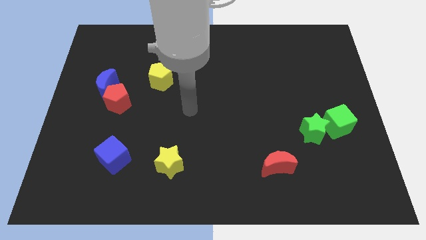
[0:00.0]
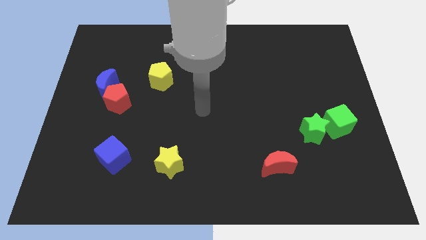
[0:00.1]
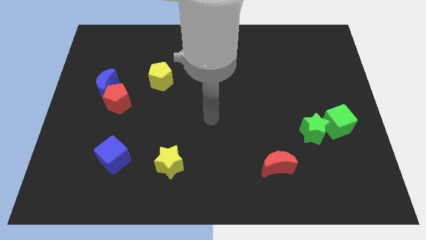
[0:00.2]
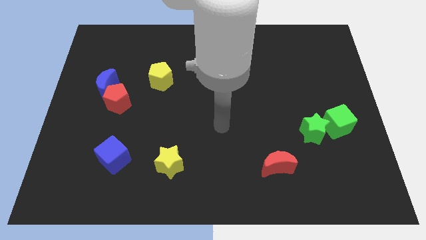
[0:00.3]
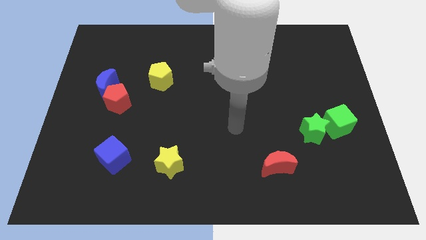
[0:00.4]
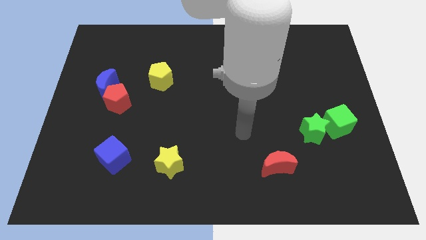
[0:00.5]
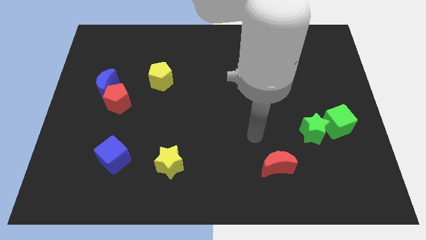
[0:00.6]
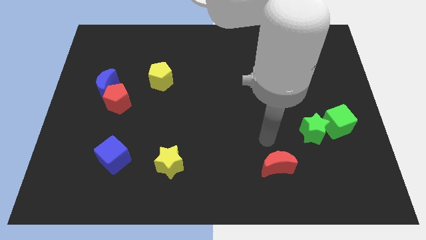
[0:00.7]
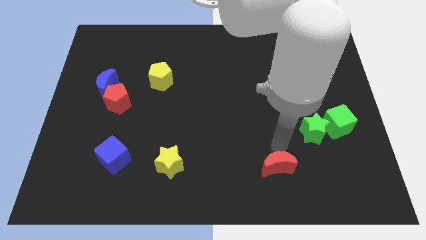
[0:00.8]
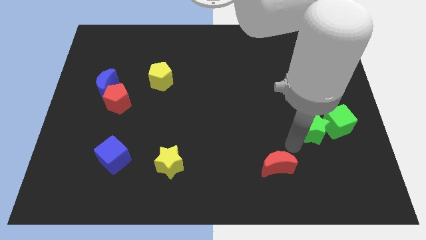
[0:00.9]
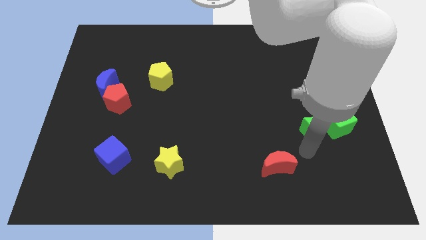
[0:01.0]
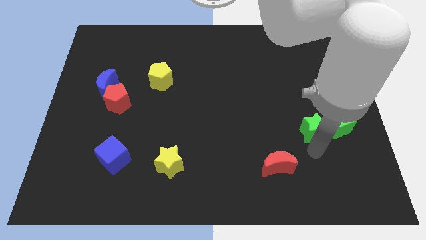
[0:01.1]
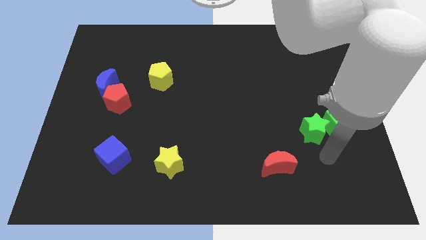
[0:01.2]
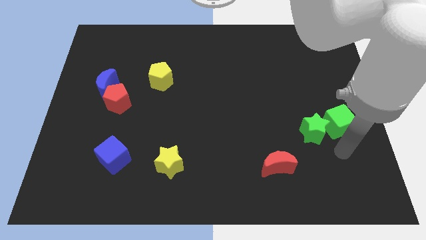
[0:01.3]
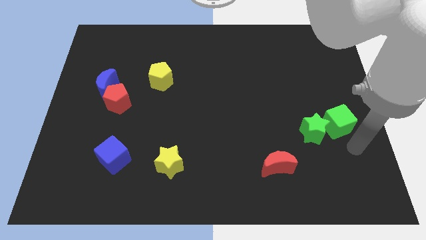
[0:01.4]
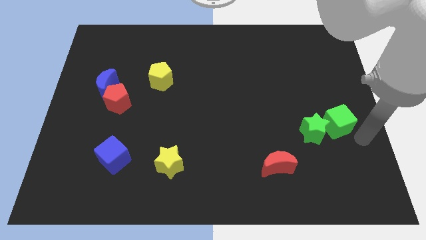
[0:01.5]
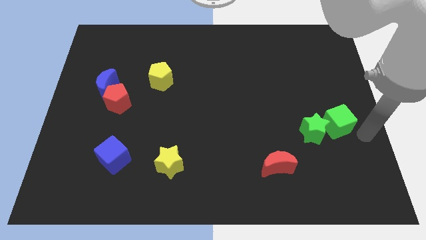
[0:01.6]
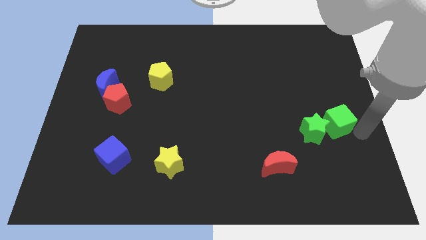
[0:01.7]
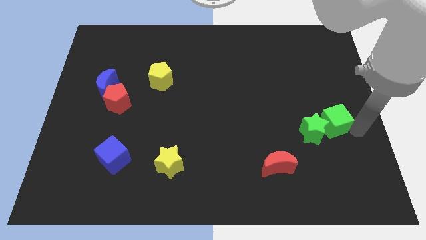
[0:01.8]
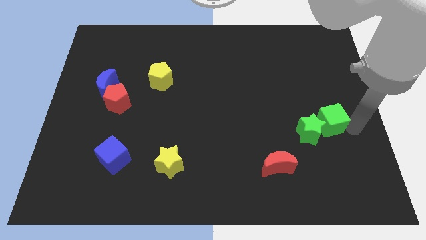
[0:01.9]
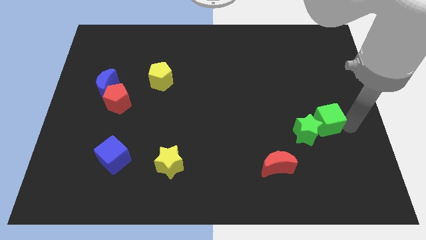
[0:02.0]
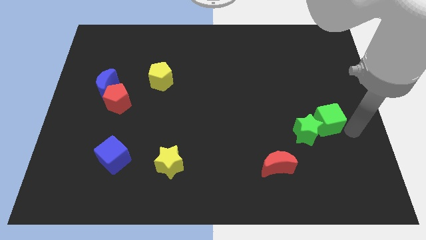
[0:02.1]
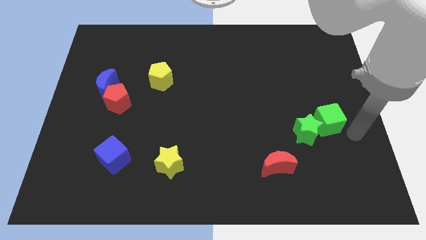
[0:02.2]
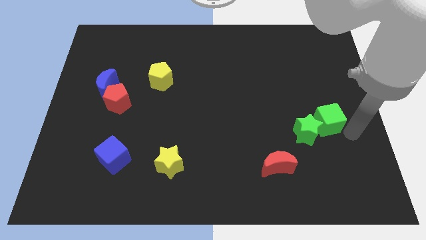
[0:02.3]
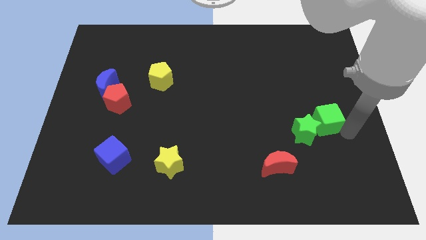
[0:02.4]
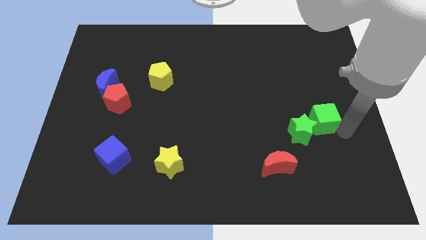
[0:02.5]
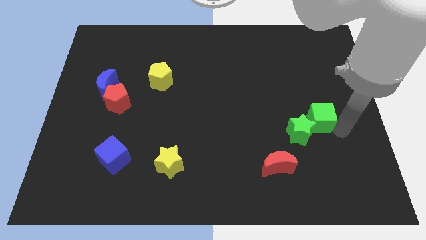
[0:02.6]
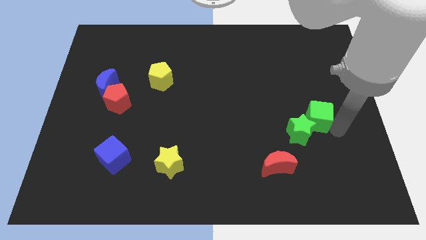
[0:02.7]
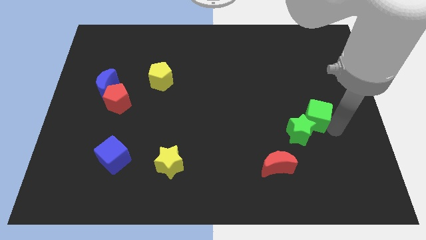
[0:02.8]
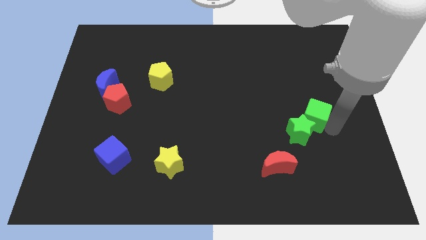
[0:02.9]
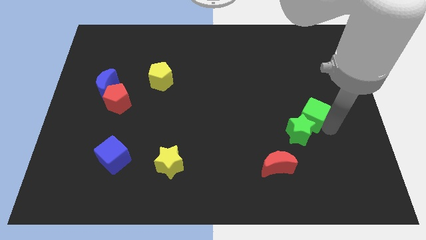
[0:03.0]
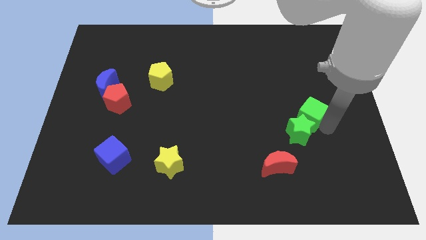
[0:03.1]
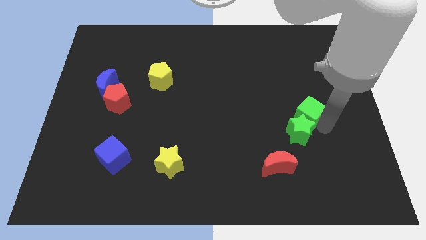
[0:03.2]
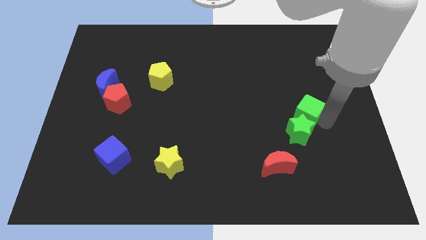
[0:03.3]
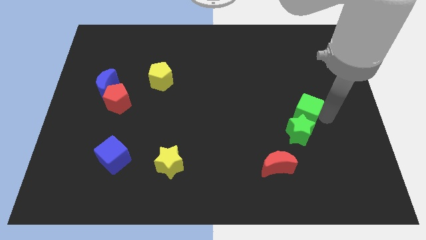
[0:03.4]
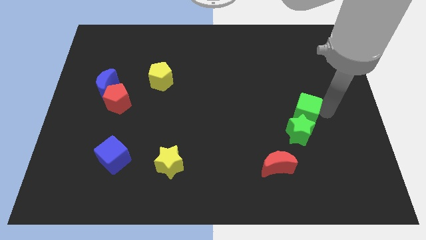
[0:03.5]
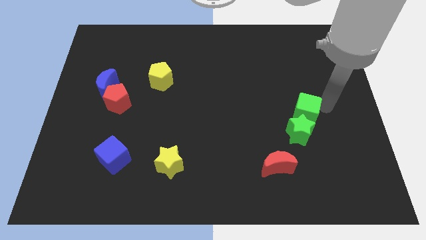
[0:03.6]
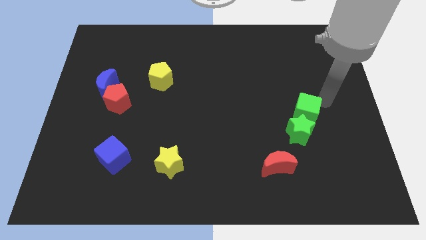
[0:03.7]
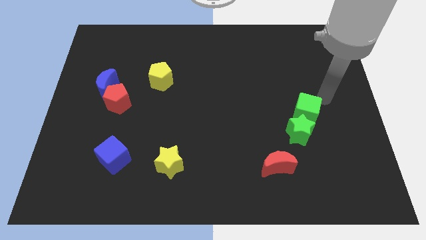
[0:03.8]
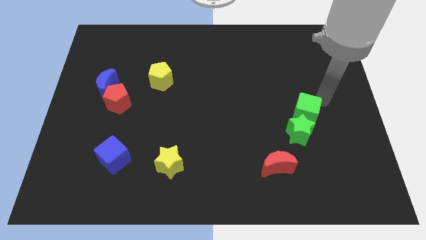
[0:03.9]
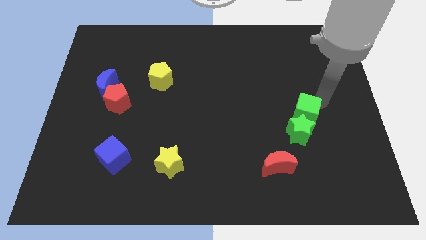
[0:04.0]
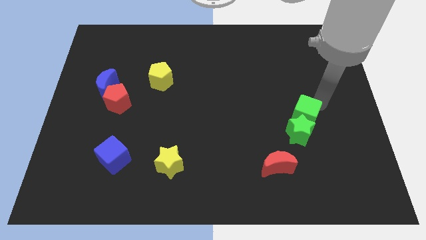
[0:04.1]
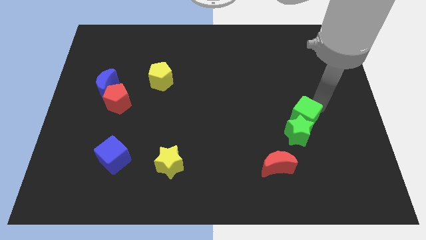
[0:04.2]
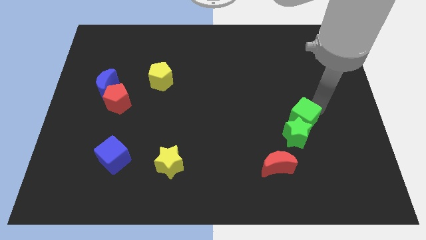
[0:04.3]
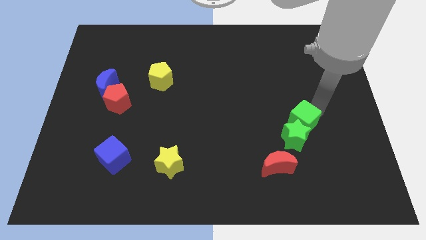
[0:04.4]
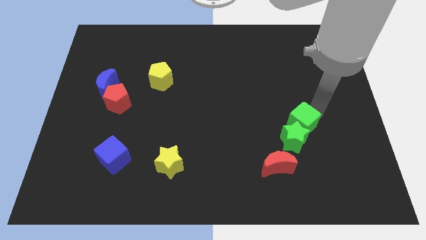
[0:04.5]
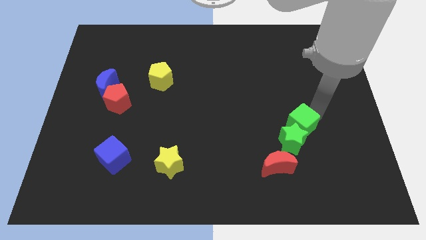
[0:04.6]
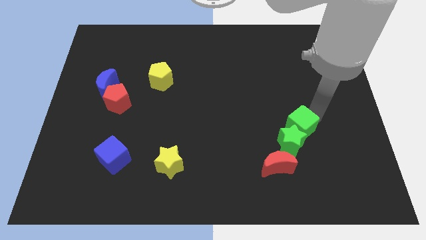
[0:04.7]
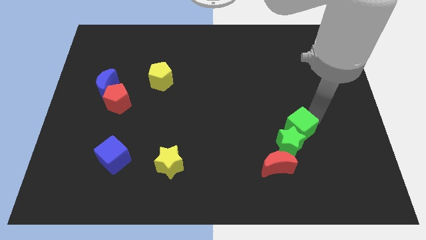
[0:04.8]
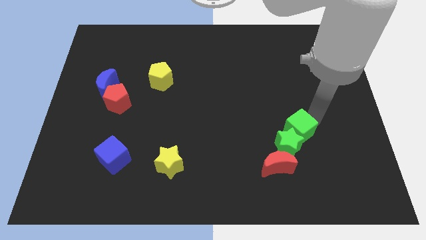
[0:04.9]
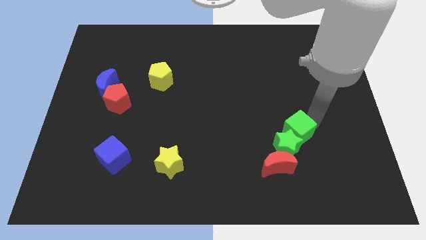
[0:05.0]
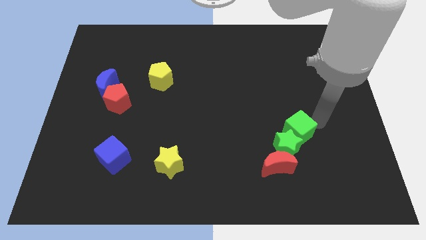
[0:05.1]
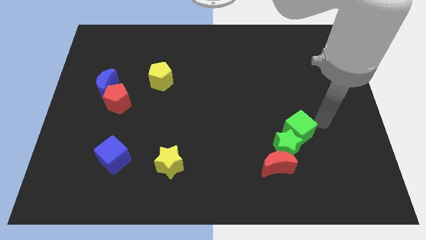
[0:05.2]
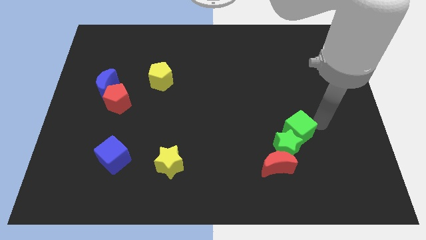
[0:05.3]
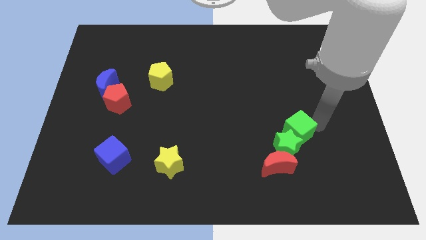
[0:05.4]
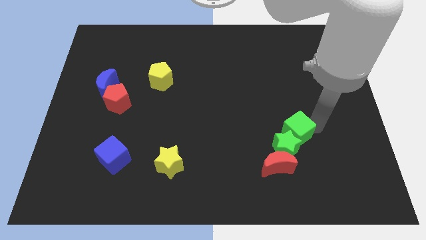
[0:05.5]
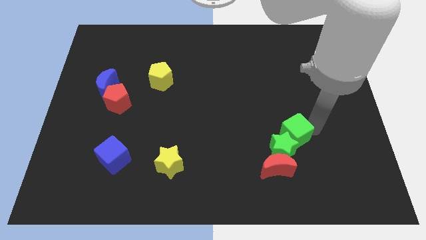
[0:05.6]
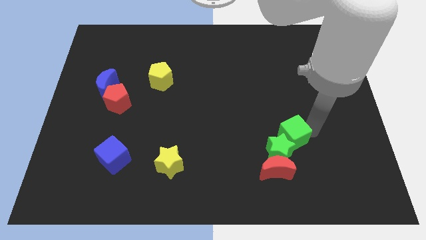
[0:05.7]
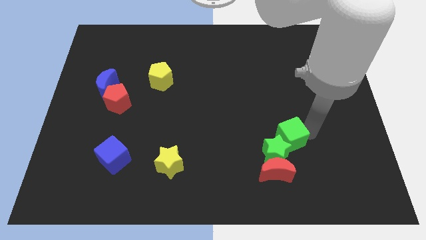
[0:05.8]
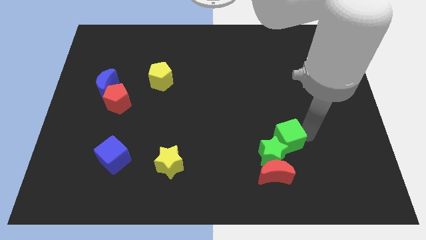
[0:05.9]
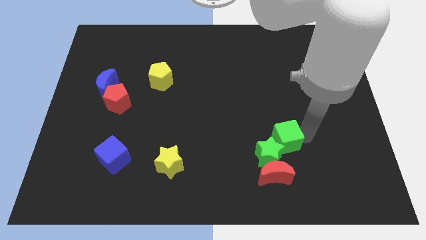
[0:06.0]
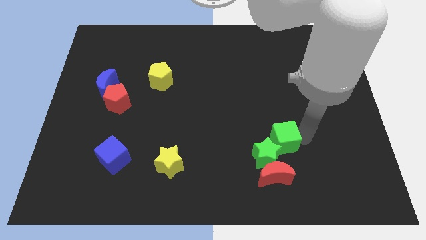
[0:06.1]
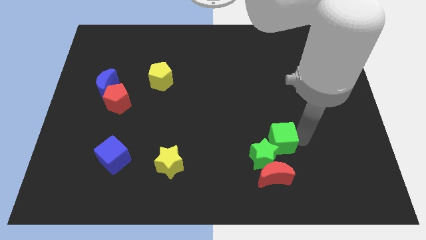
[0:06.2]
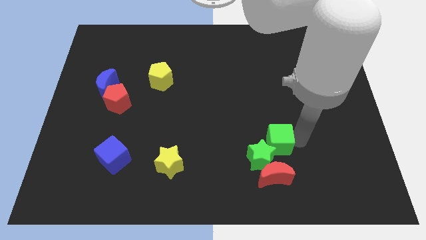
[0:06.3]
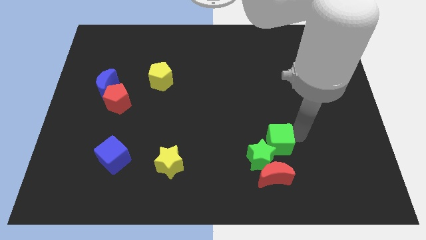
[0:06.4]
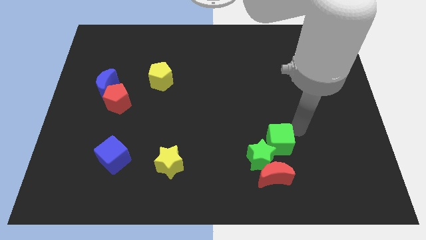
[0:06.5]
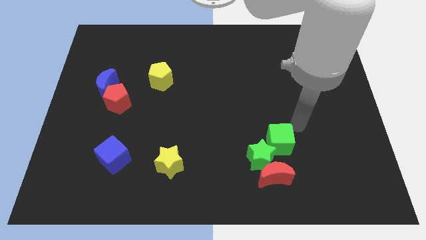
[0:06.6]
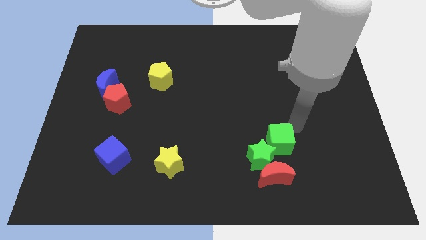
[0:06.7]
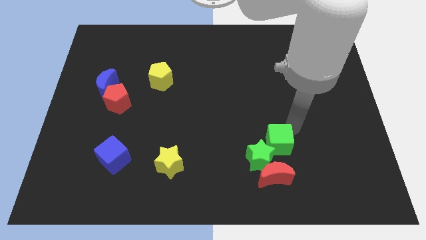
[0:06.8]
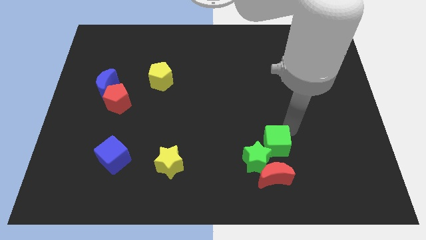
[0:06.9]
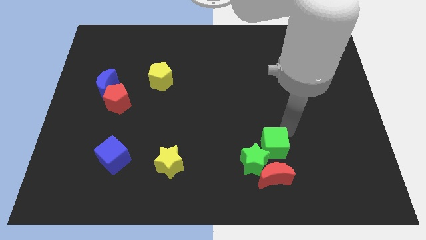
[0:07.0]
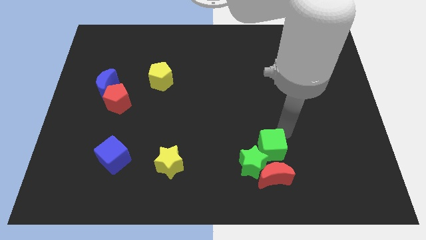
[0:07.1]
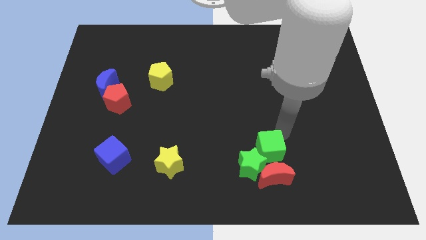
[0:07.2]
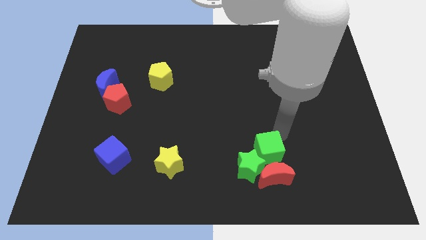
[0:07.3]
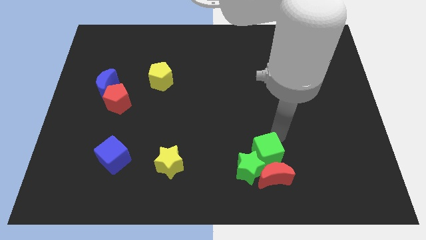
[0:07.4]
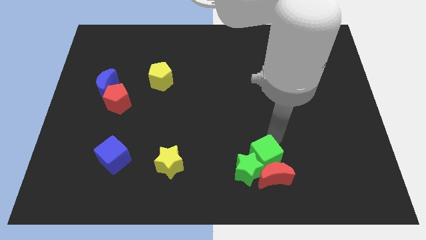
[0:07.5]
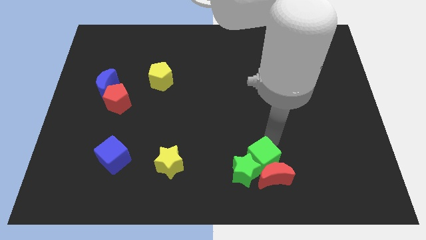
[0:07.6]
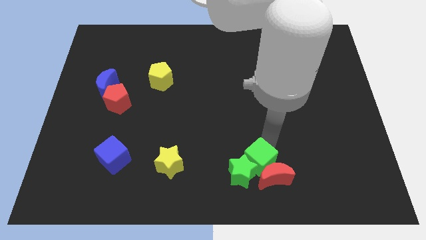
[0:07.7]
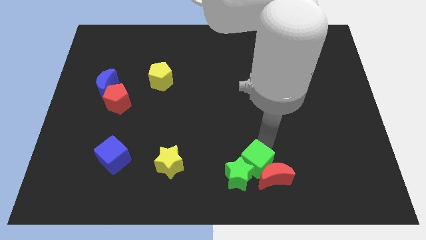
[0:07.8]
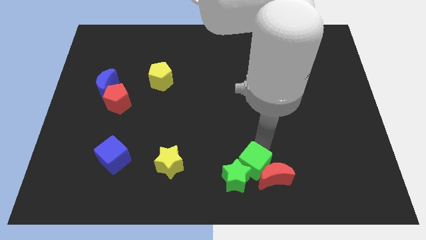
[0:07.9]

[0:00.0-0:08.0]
slide the green cube to the bottom

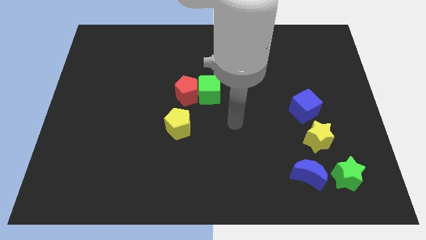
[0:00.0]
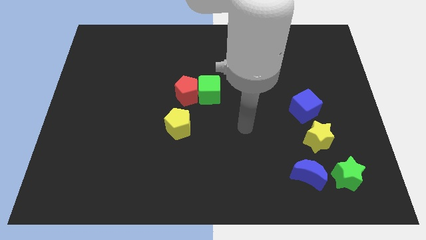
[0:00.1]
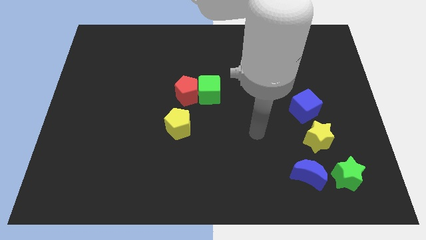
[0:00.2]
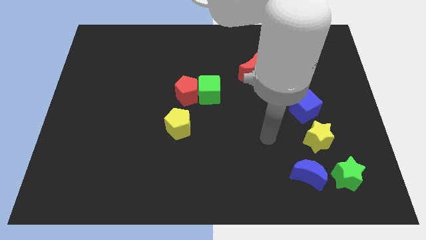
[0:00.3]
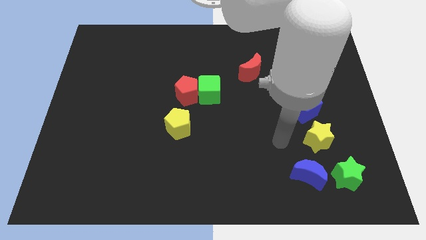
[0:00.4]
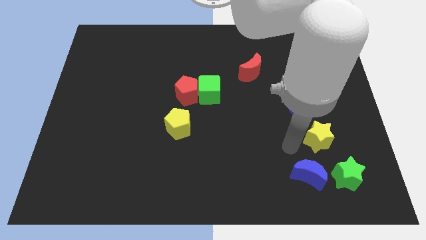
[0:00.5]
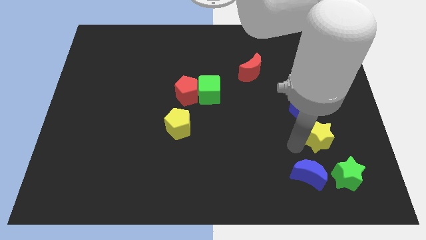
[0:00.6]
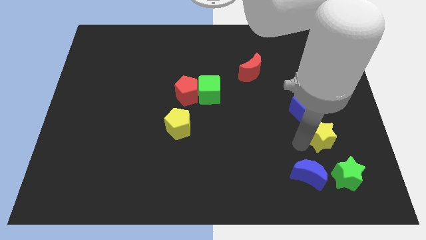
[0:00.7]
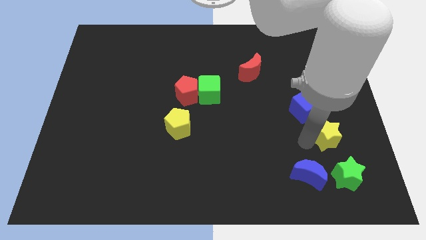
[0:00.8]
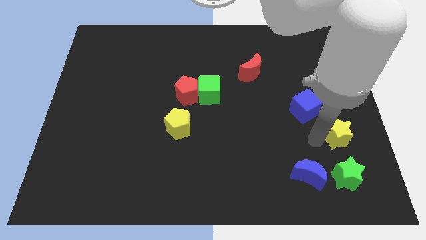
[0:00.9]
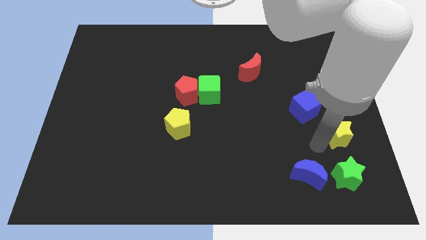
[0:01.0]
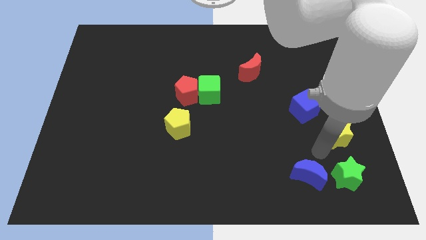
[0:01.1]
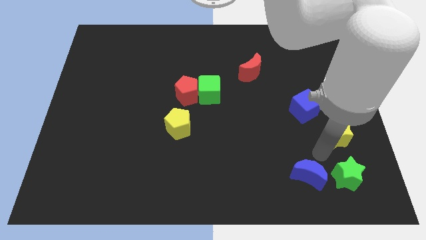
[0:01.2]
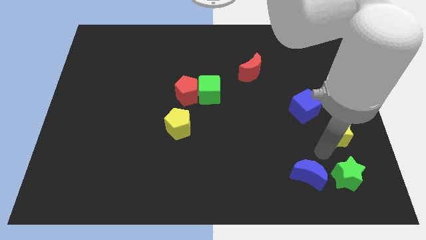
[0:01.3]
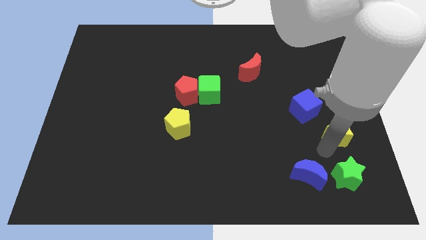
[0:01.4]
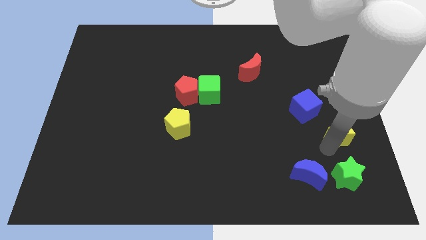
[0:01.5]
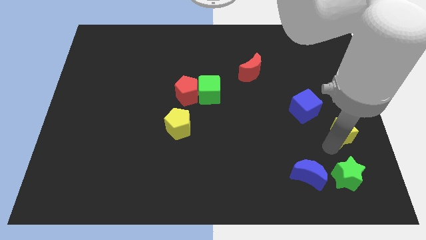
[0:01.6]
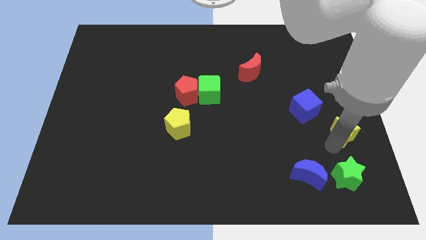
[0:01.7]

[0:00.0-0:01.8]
push the yellow star to the right side of the board
